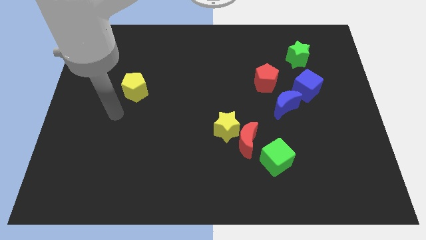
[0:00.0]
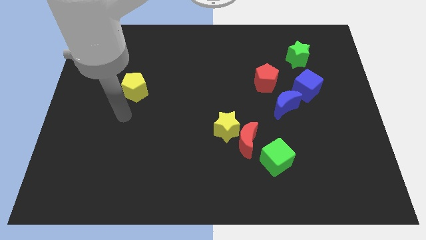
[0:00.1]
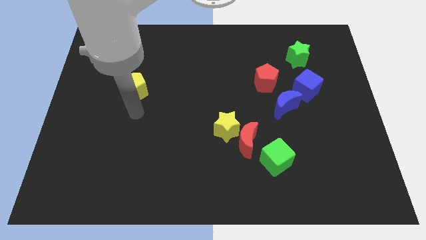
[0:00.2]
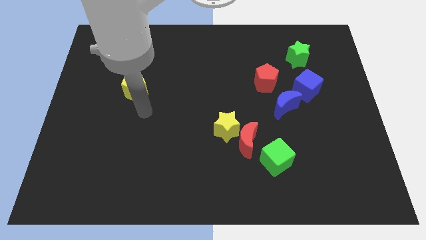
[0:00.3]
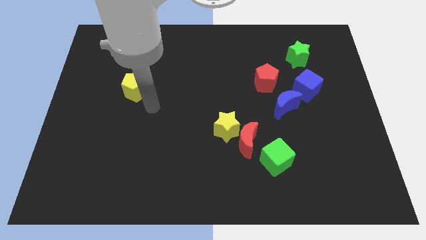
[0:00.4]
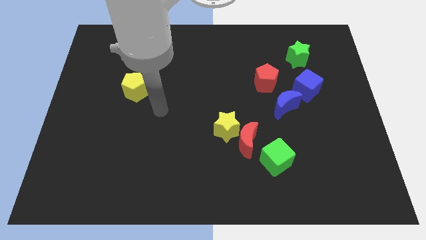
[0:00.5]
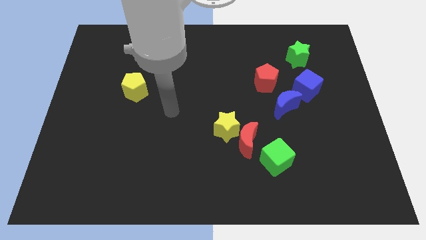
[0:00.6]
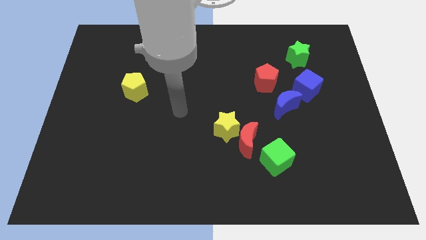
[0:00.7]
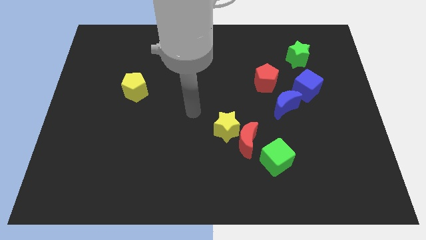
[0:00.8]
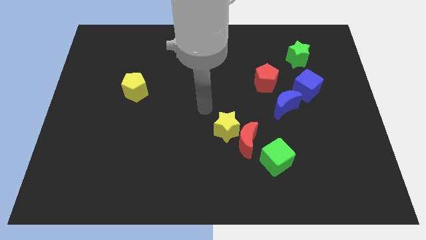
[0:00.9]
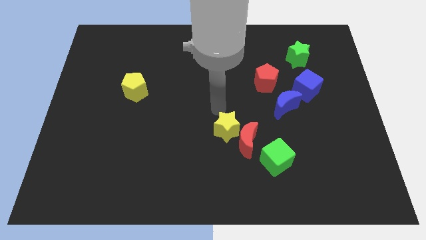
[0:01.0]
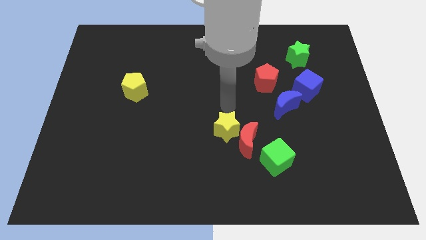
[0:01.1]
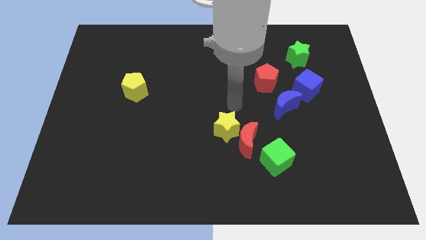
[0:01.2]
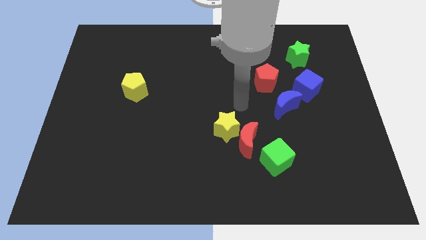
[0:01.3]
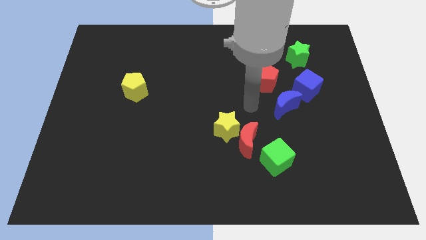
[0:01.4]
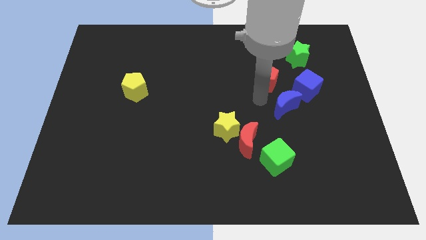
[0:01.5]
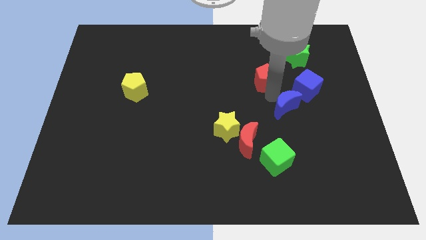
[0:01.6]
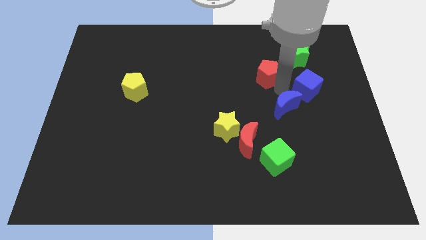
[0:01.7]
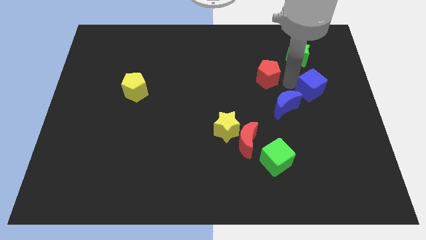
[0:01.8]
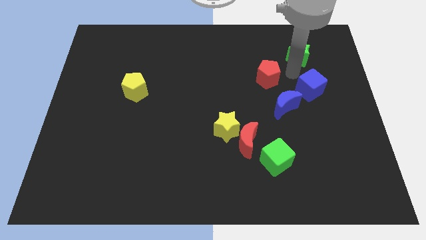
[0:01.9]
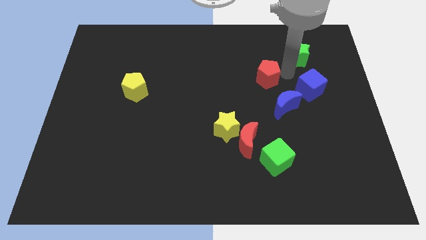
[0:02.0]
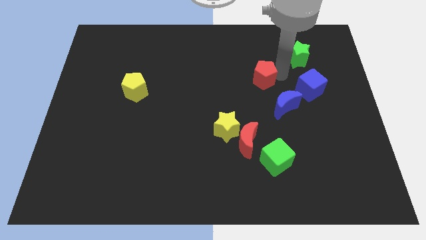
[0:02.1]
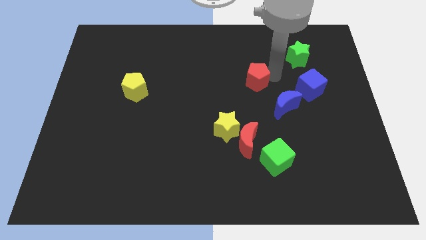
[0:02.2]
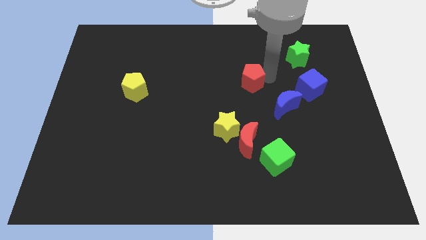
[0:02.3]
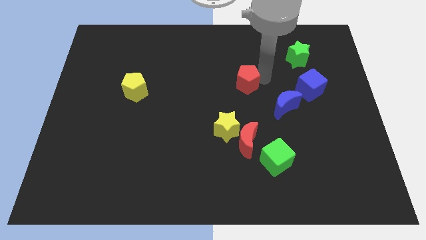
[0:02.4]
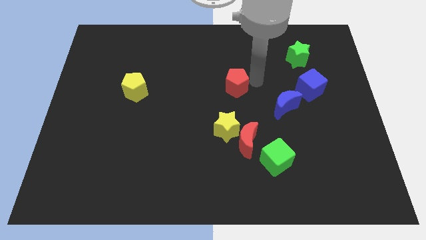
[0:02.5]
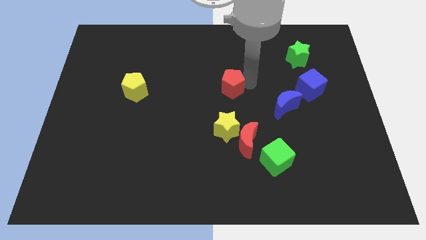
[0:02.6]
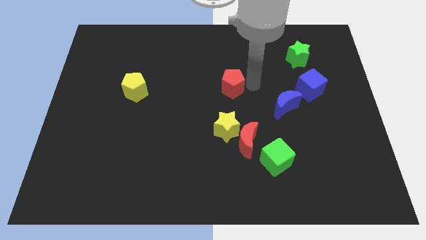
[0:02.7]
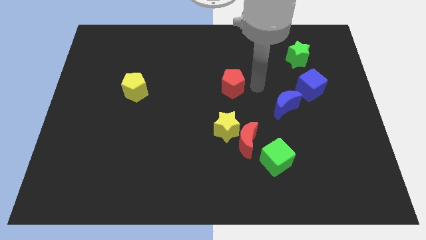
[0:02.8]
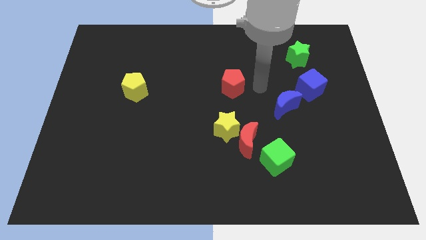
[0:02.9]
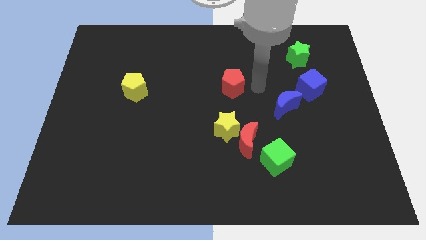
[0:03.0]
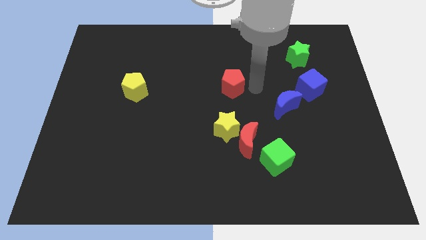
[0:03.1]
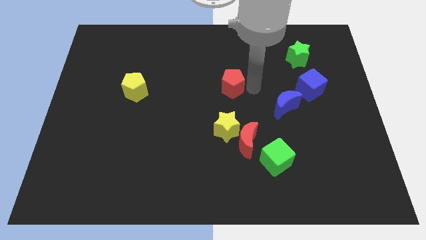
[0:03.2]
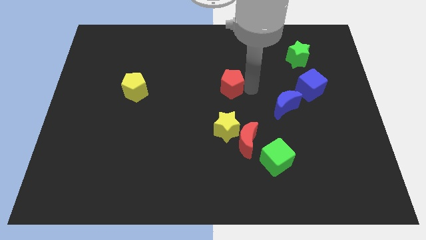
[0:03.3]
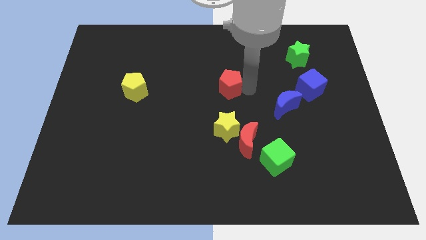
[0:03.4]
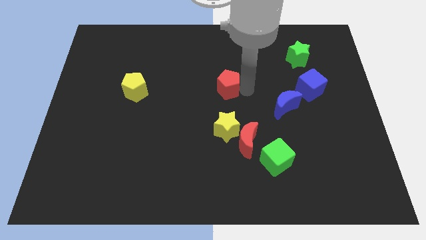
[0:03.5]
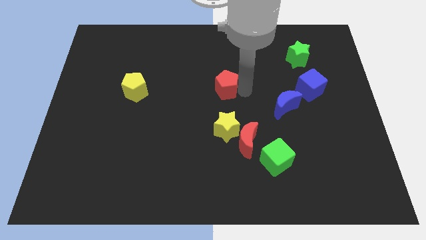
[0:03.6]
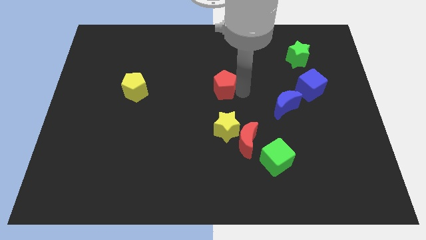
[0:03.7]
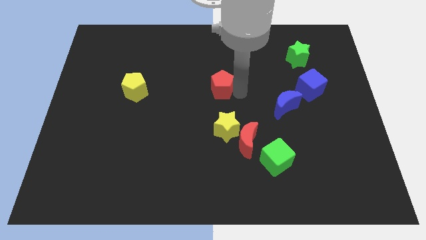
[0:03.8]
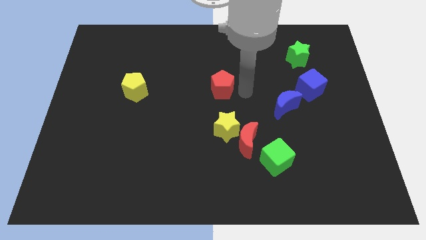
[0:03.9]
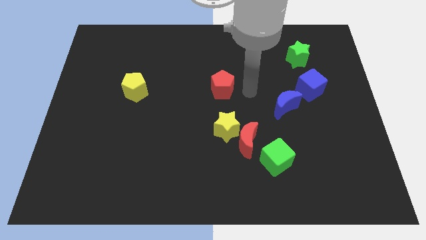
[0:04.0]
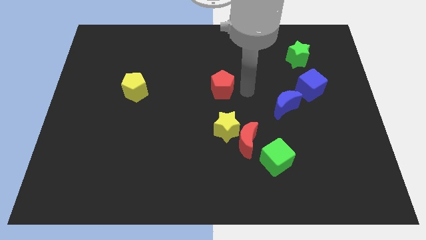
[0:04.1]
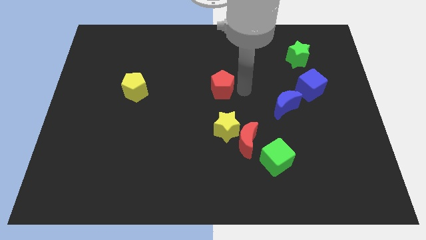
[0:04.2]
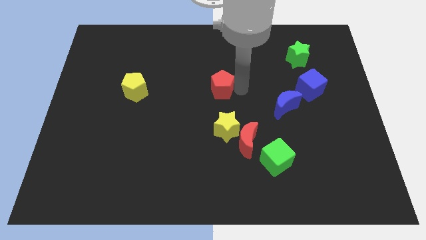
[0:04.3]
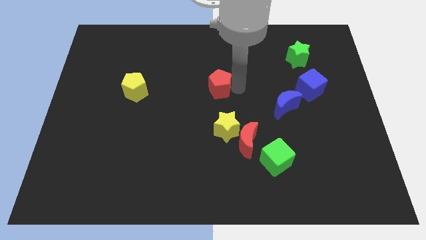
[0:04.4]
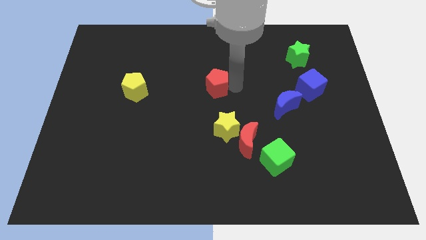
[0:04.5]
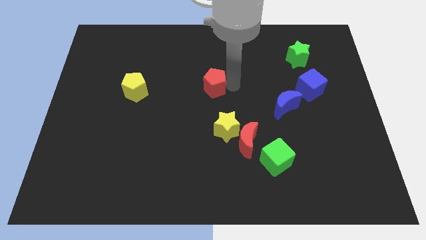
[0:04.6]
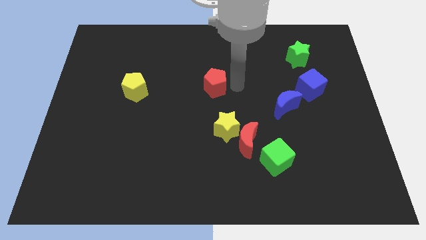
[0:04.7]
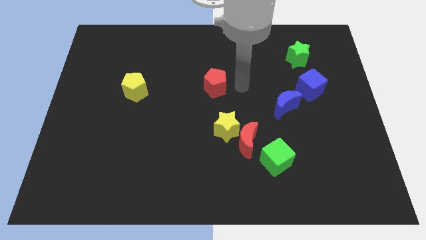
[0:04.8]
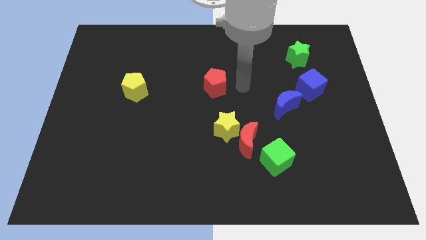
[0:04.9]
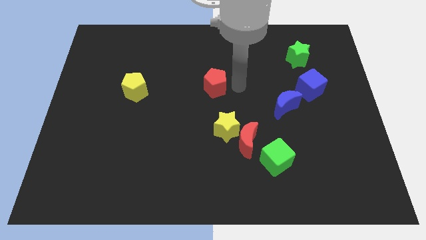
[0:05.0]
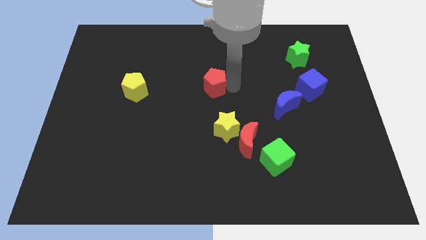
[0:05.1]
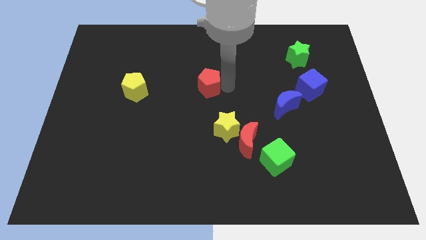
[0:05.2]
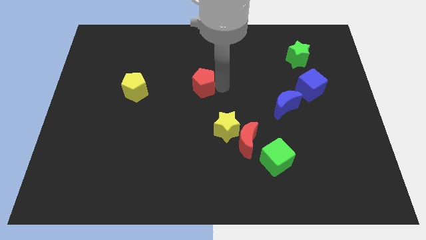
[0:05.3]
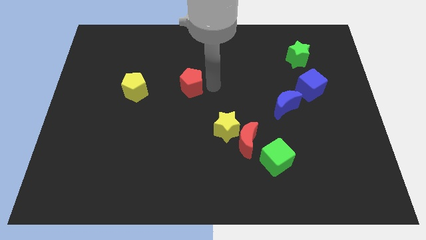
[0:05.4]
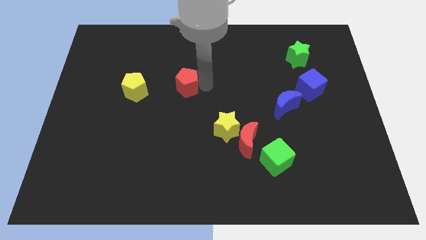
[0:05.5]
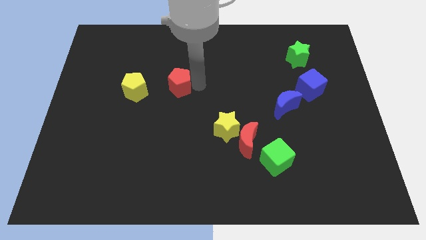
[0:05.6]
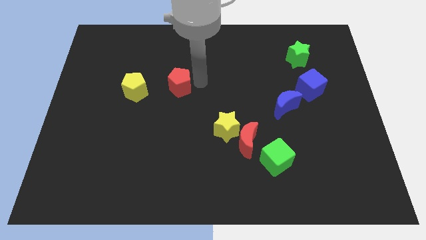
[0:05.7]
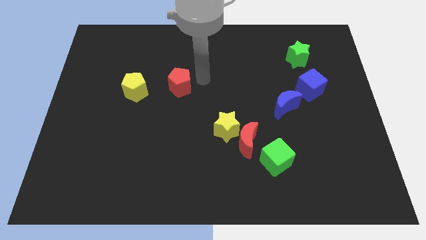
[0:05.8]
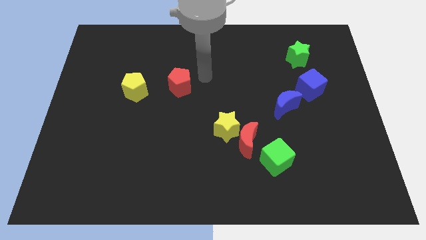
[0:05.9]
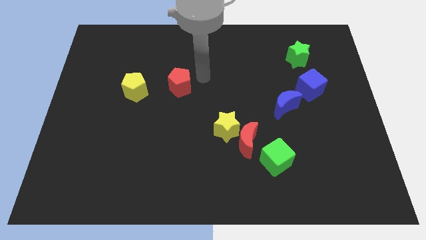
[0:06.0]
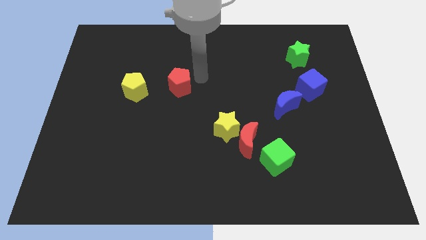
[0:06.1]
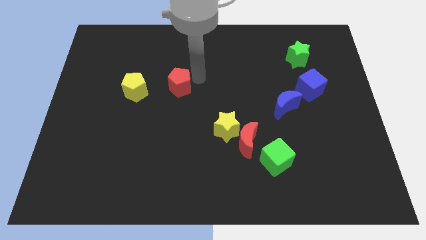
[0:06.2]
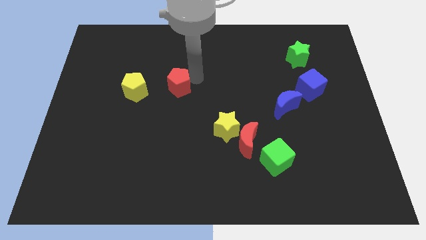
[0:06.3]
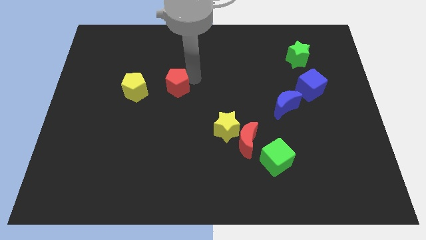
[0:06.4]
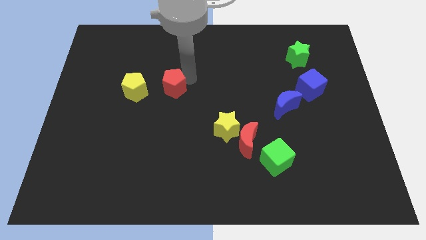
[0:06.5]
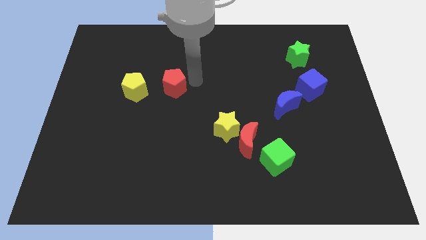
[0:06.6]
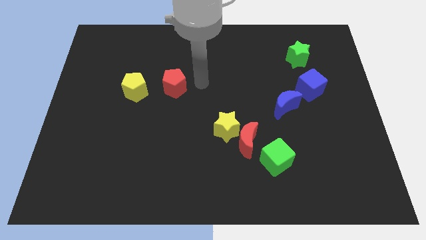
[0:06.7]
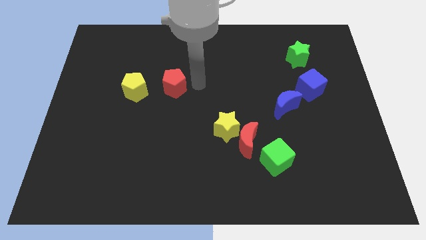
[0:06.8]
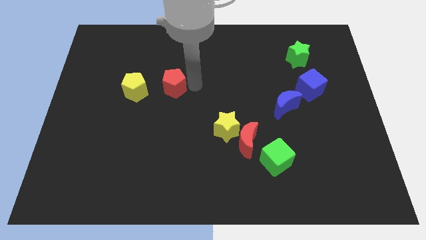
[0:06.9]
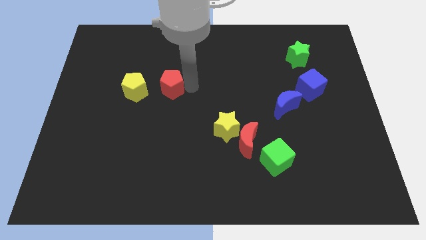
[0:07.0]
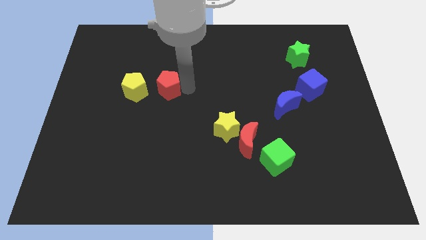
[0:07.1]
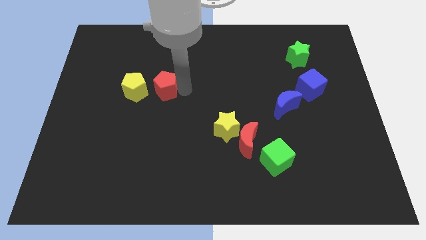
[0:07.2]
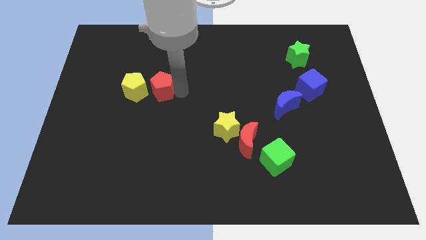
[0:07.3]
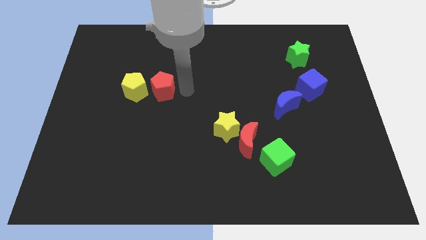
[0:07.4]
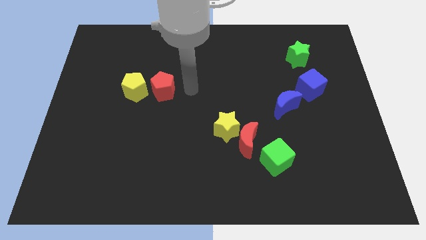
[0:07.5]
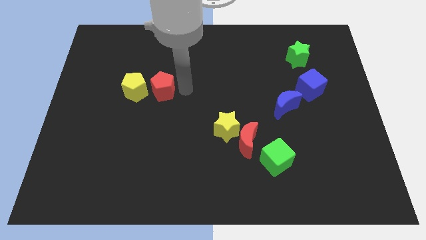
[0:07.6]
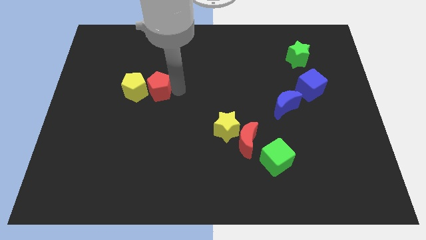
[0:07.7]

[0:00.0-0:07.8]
put the red pentagon next to the yellow pentagon
